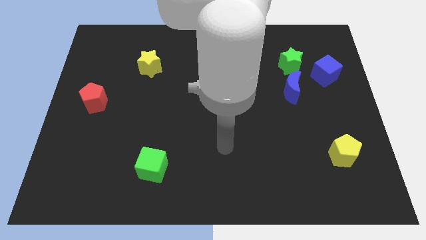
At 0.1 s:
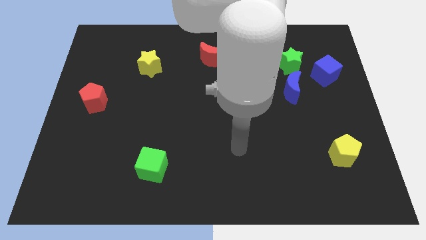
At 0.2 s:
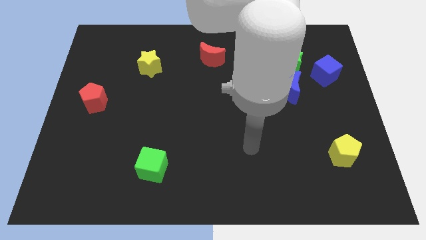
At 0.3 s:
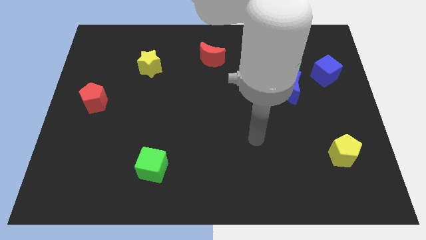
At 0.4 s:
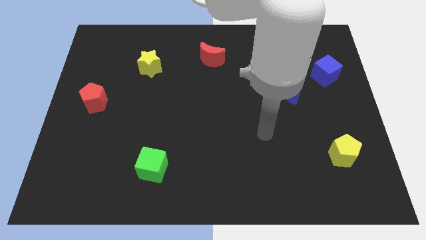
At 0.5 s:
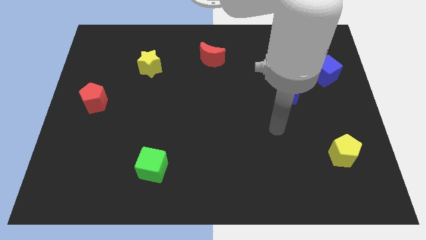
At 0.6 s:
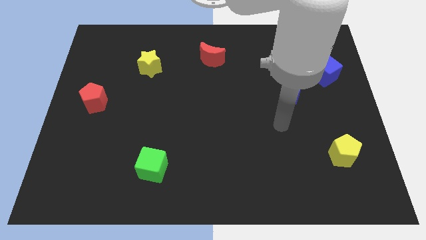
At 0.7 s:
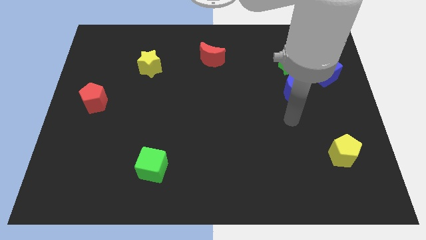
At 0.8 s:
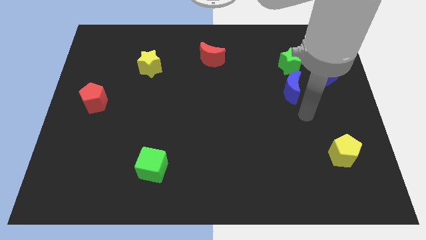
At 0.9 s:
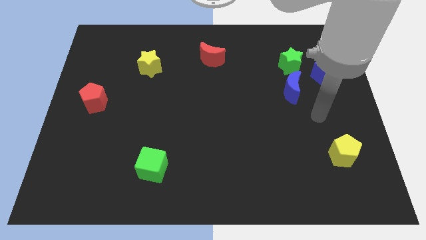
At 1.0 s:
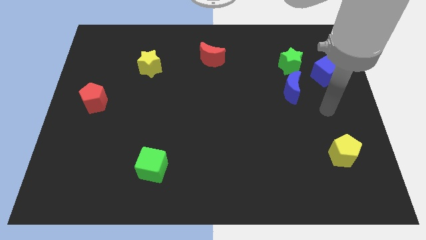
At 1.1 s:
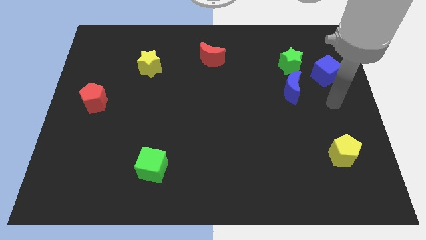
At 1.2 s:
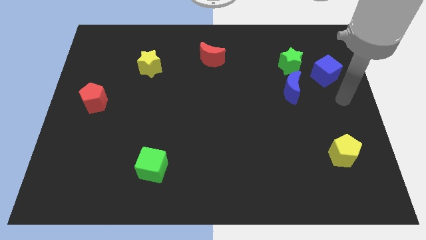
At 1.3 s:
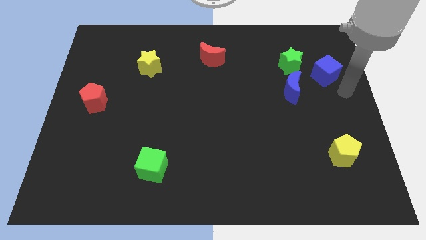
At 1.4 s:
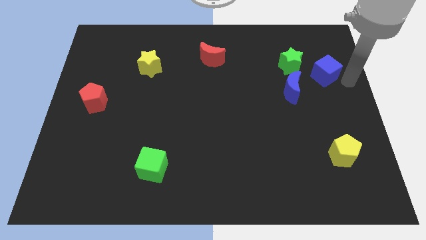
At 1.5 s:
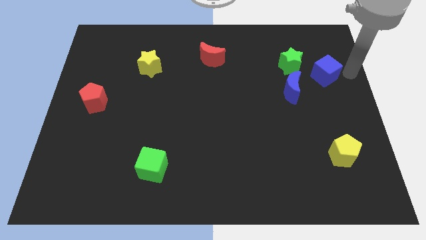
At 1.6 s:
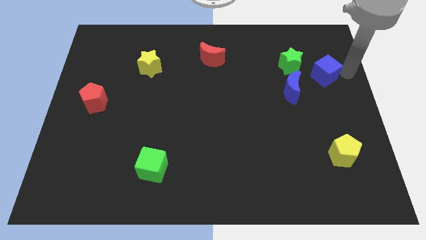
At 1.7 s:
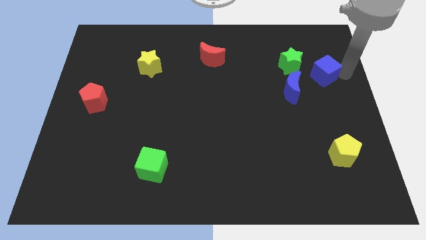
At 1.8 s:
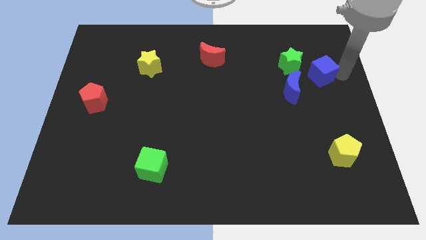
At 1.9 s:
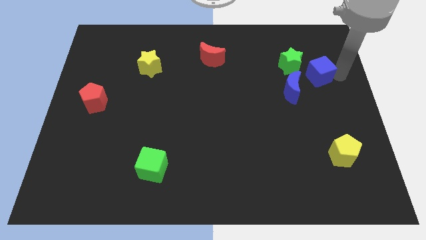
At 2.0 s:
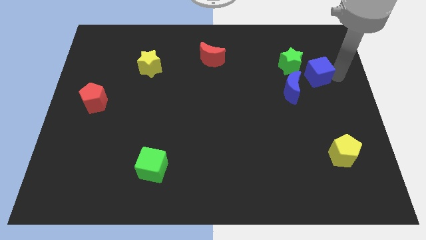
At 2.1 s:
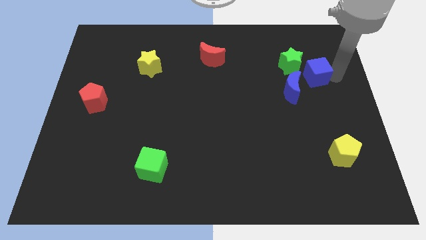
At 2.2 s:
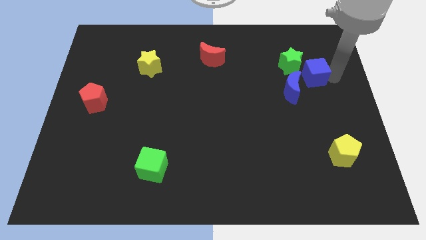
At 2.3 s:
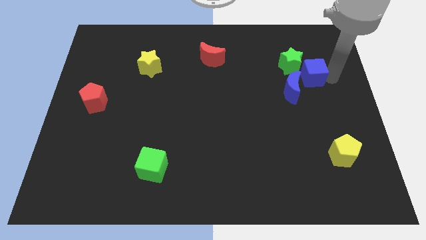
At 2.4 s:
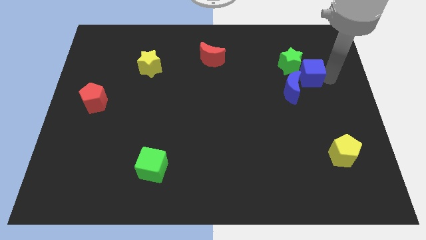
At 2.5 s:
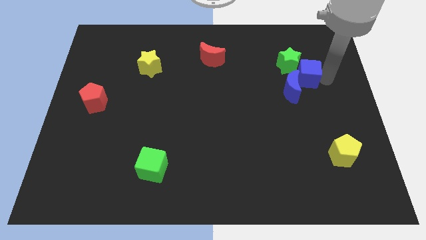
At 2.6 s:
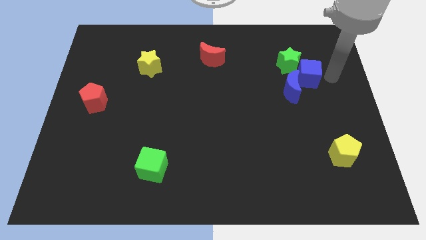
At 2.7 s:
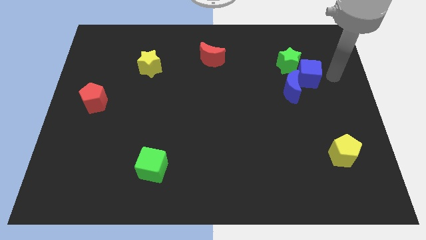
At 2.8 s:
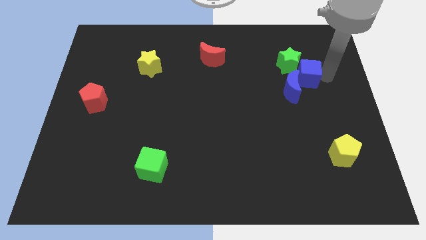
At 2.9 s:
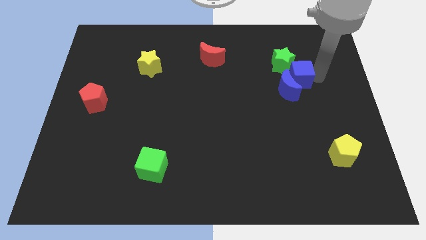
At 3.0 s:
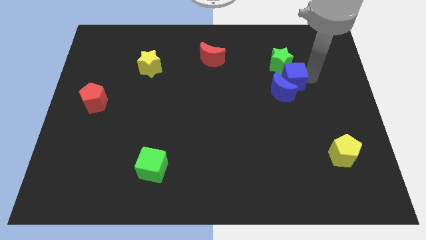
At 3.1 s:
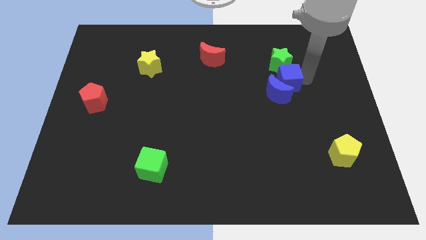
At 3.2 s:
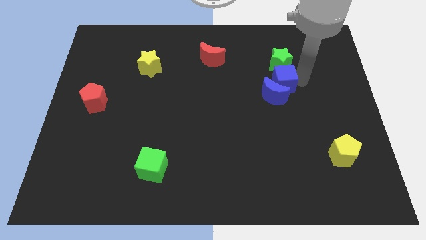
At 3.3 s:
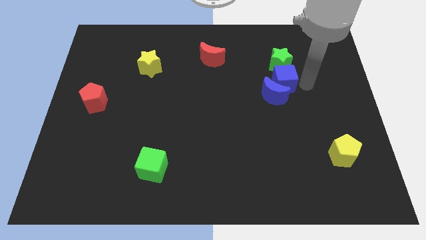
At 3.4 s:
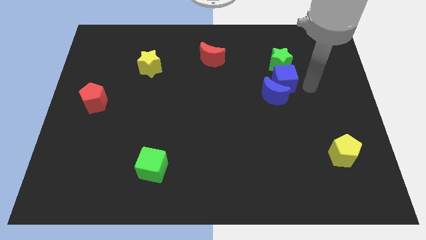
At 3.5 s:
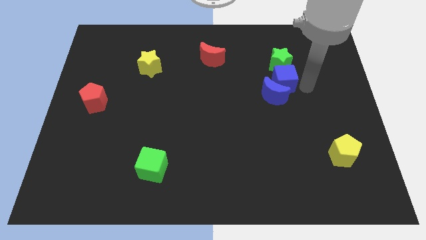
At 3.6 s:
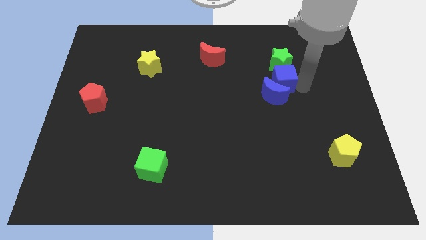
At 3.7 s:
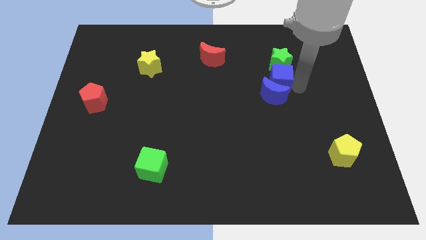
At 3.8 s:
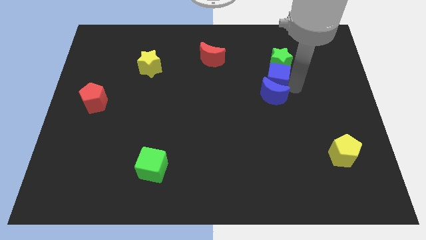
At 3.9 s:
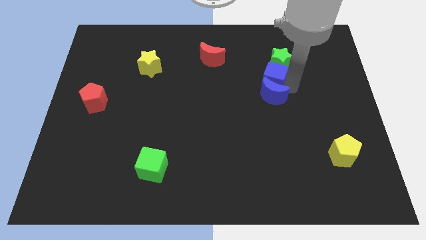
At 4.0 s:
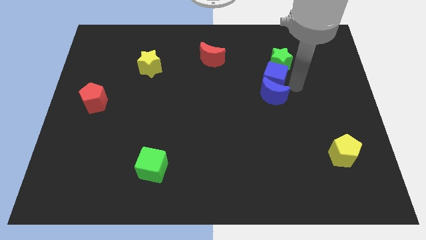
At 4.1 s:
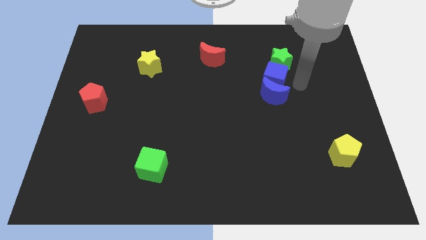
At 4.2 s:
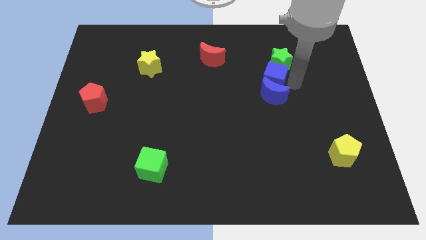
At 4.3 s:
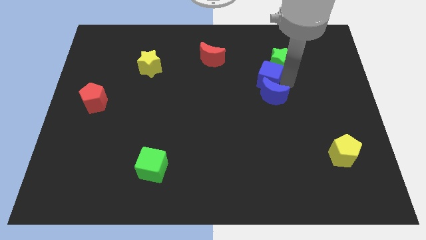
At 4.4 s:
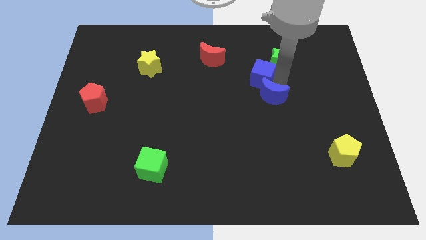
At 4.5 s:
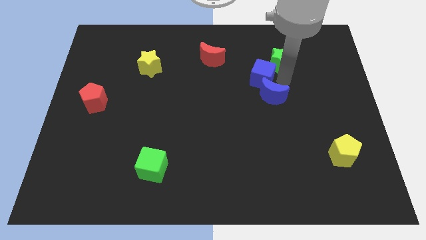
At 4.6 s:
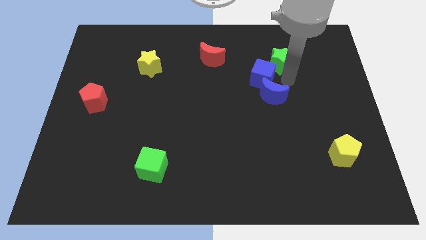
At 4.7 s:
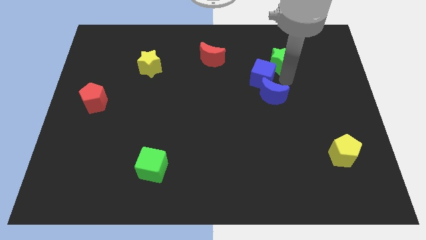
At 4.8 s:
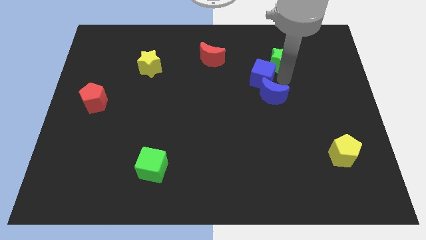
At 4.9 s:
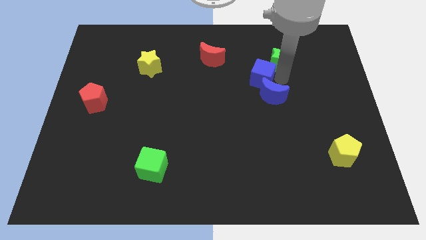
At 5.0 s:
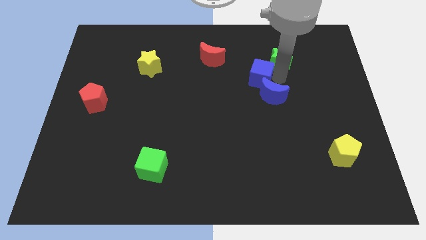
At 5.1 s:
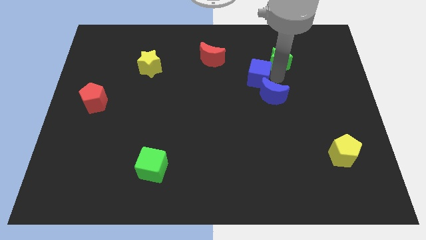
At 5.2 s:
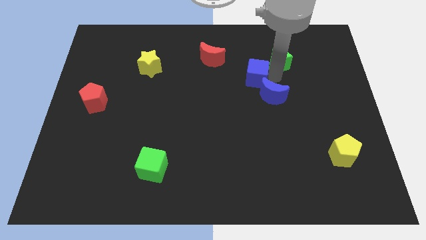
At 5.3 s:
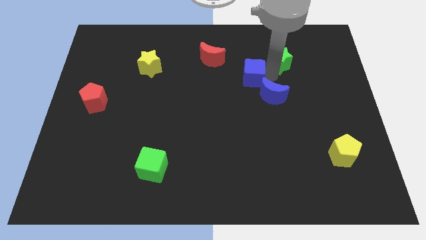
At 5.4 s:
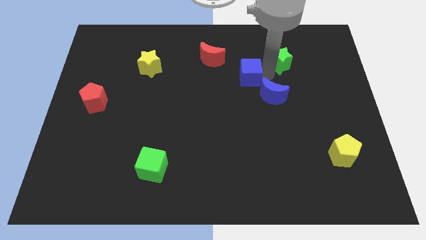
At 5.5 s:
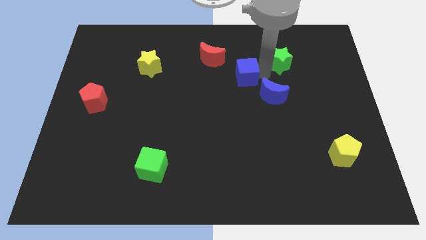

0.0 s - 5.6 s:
push the blue cube to the left

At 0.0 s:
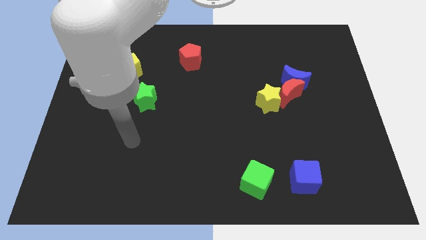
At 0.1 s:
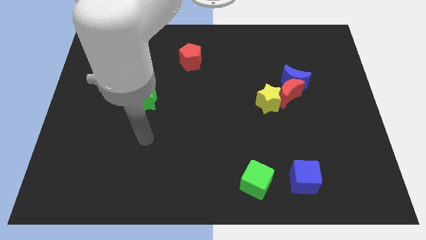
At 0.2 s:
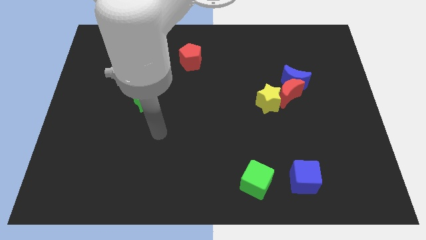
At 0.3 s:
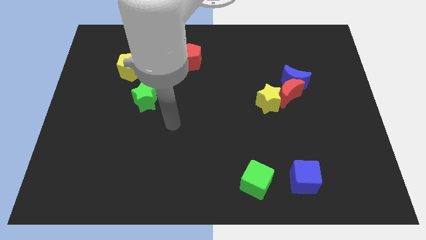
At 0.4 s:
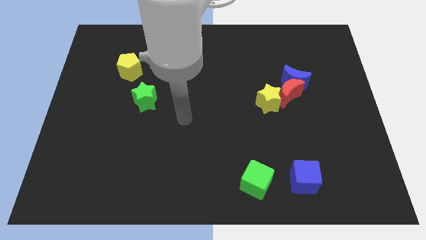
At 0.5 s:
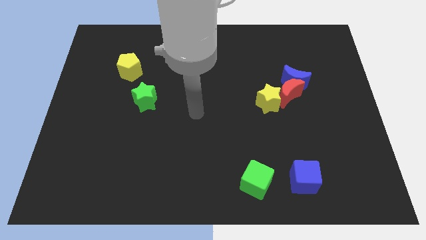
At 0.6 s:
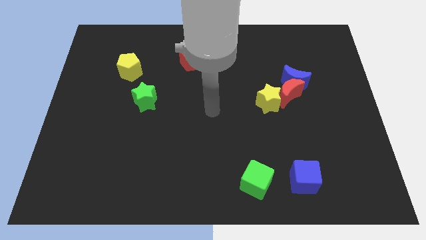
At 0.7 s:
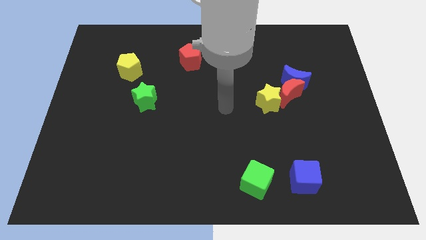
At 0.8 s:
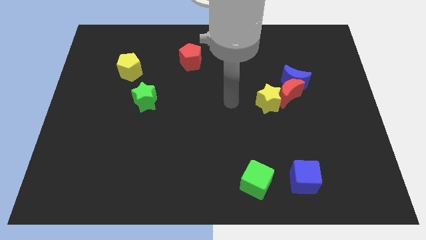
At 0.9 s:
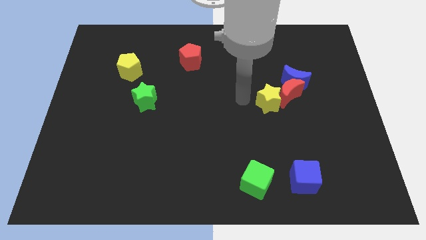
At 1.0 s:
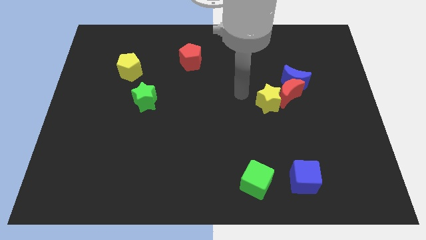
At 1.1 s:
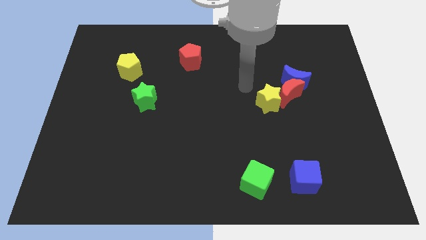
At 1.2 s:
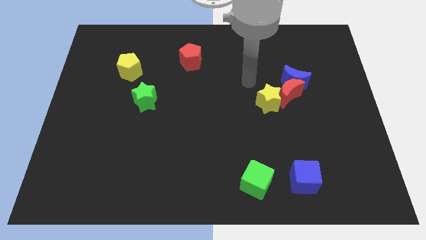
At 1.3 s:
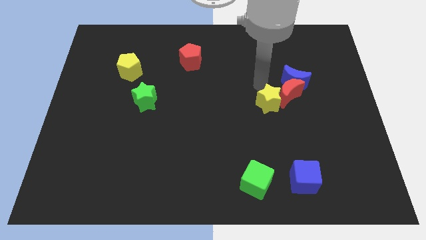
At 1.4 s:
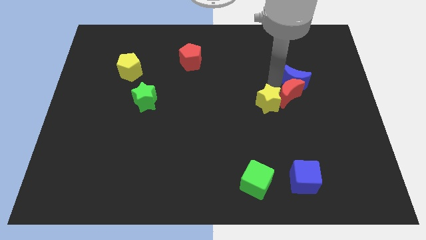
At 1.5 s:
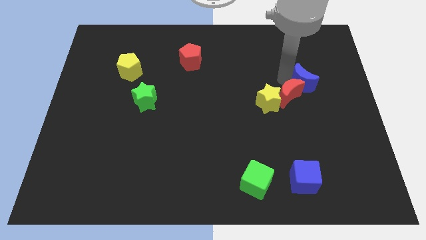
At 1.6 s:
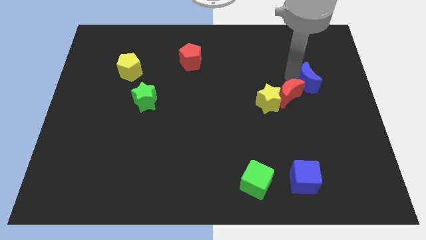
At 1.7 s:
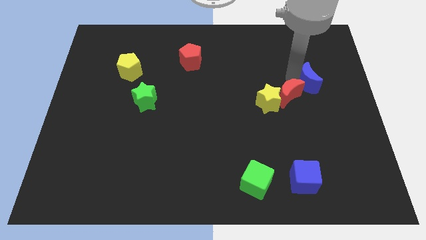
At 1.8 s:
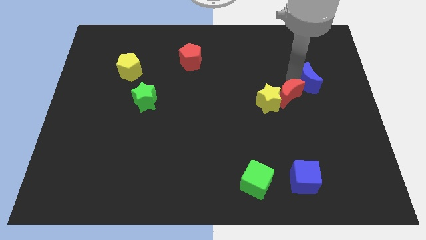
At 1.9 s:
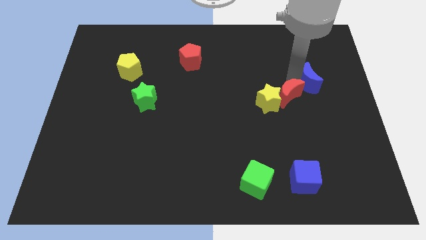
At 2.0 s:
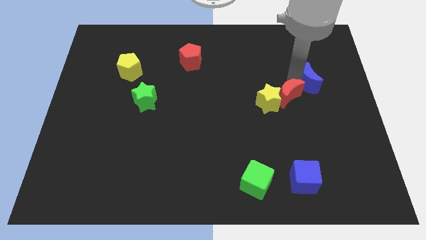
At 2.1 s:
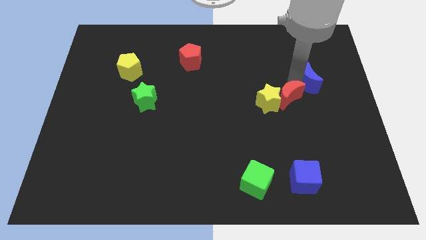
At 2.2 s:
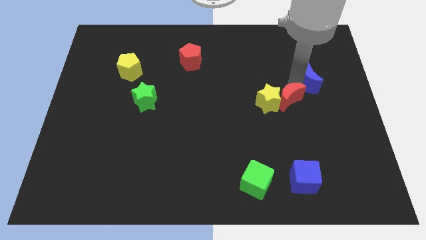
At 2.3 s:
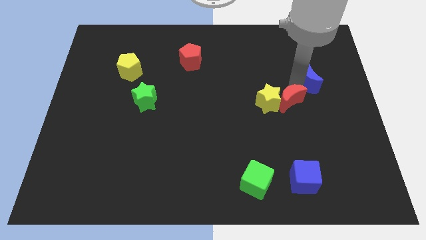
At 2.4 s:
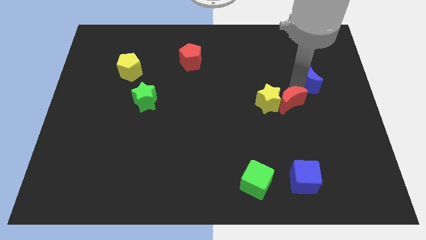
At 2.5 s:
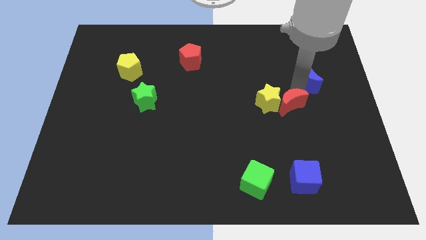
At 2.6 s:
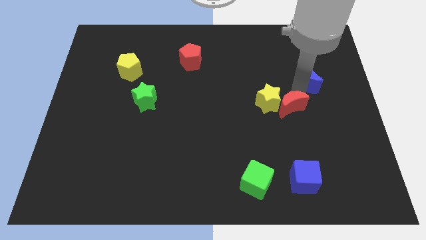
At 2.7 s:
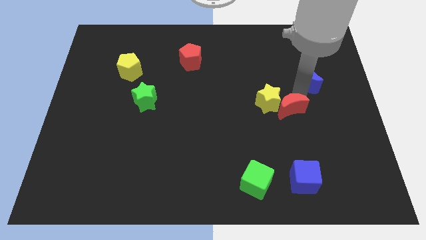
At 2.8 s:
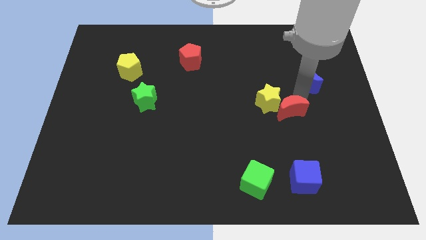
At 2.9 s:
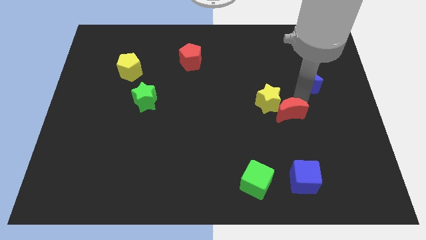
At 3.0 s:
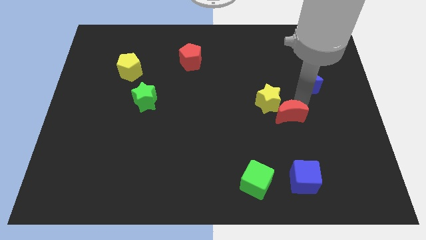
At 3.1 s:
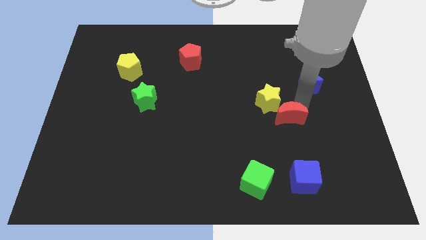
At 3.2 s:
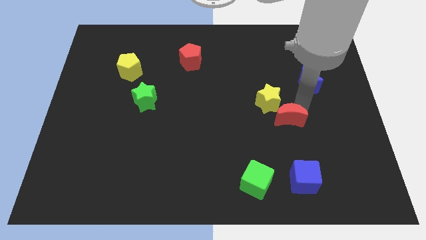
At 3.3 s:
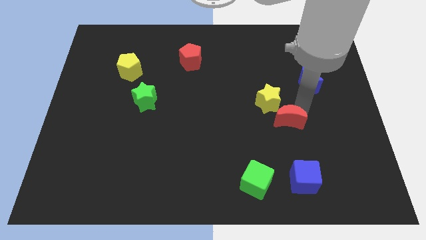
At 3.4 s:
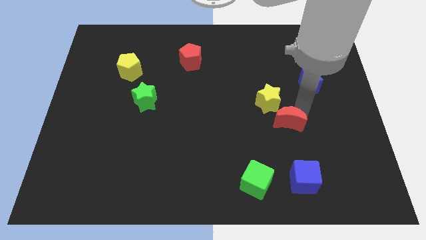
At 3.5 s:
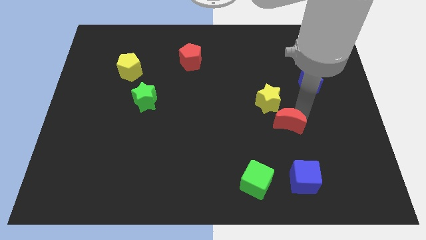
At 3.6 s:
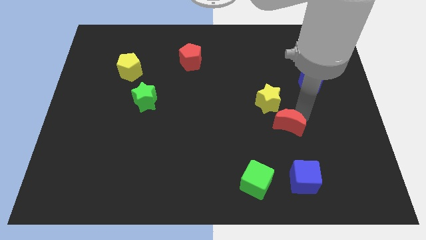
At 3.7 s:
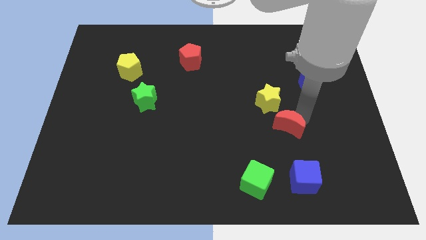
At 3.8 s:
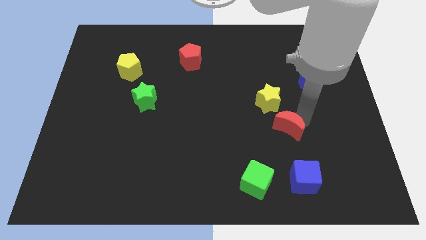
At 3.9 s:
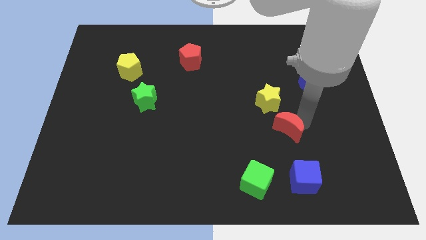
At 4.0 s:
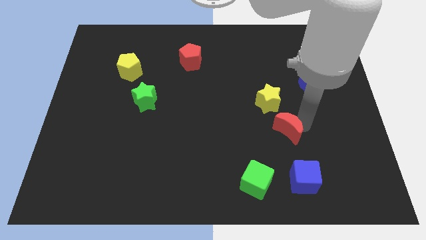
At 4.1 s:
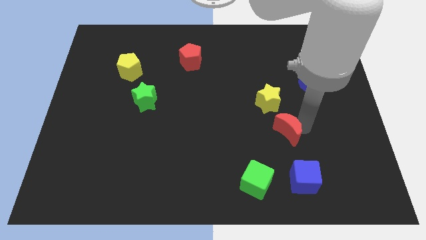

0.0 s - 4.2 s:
move the red moon slightly downwards and left diagonally
